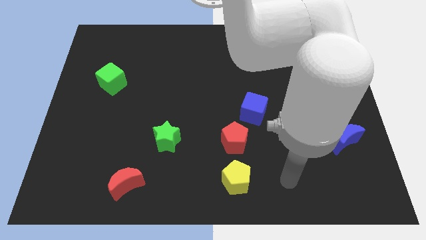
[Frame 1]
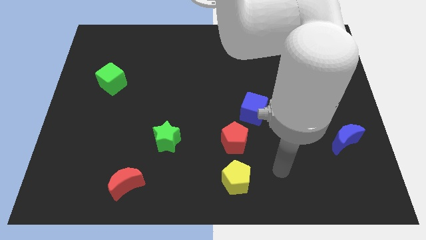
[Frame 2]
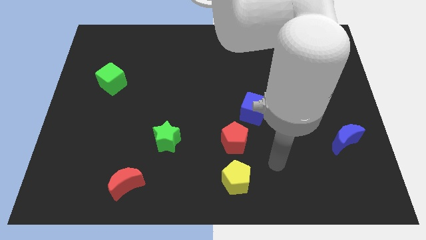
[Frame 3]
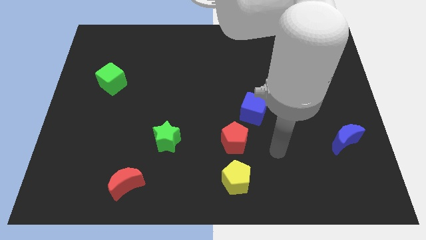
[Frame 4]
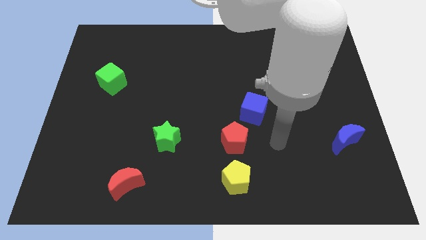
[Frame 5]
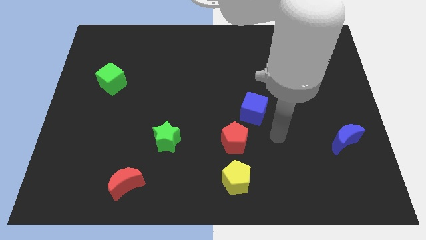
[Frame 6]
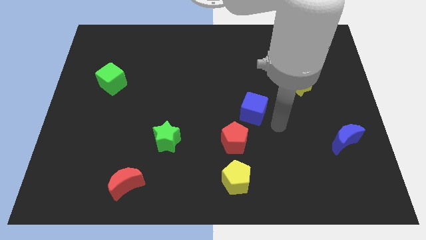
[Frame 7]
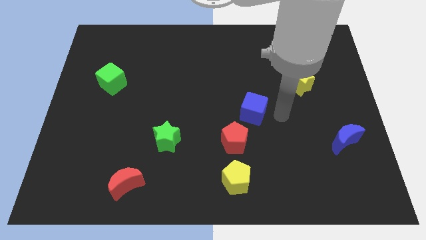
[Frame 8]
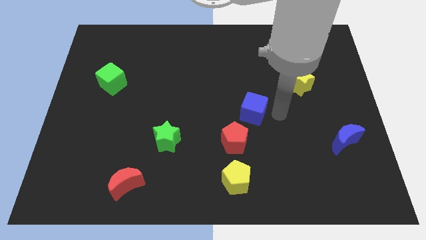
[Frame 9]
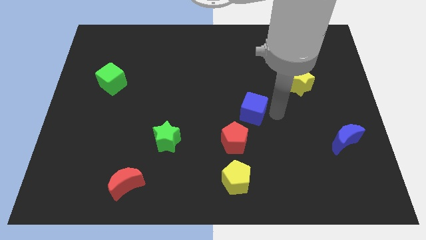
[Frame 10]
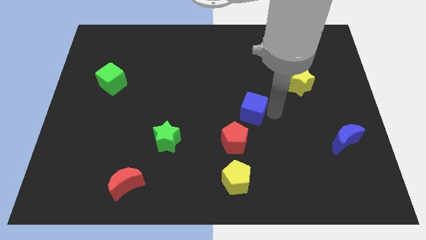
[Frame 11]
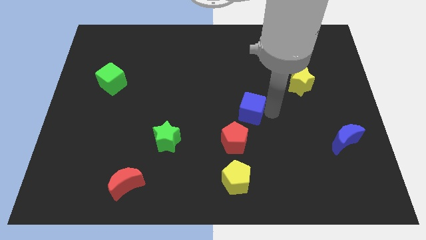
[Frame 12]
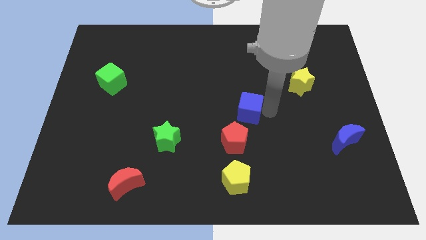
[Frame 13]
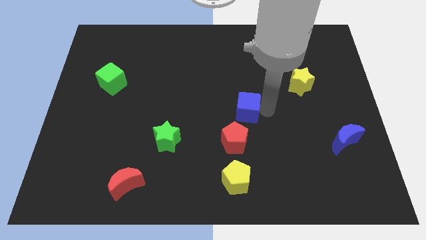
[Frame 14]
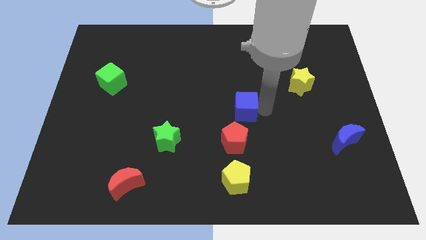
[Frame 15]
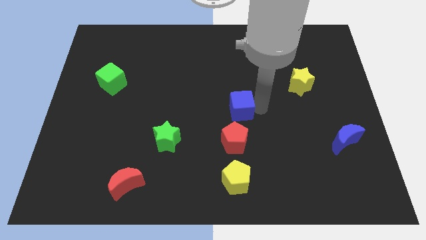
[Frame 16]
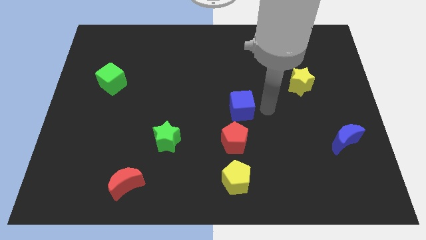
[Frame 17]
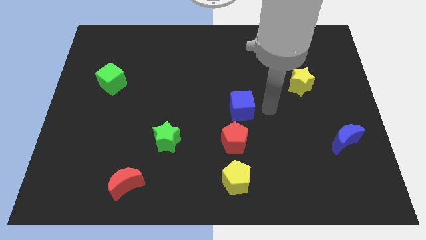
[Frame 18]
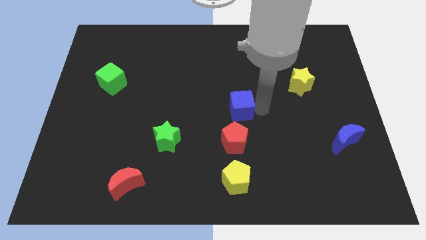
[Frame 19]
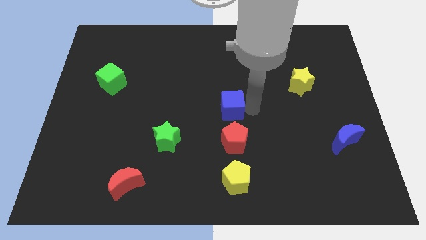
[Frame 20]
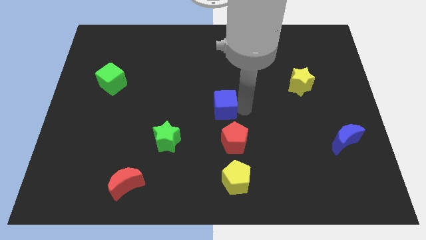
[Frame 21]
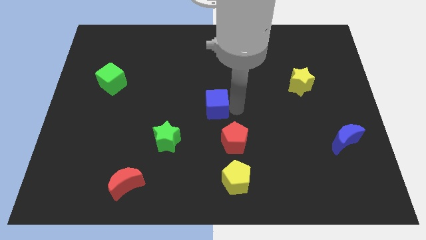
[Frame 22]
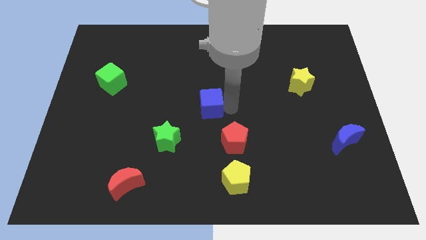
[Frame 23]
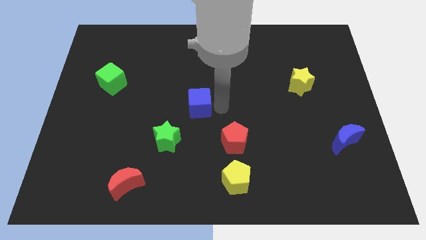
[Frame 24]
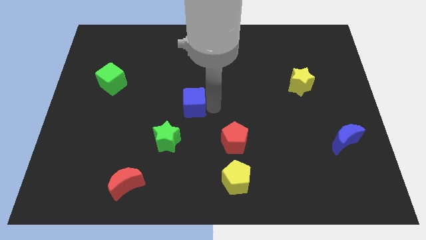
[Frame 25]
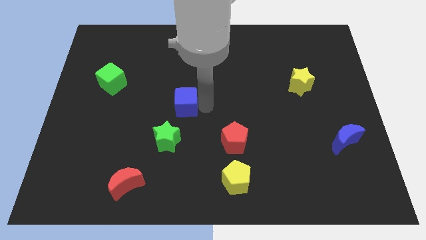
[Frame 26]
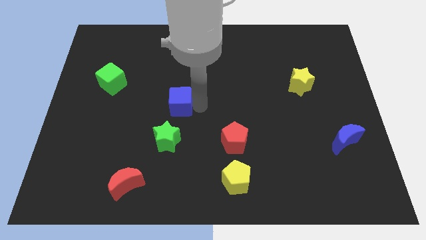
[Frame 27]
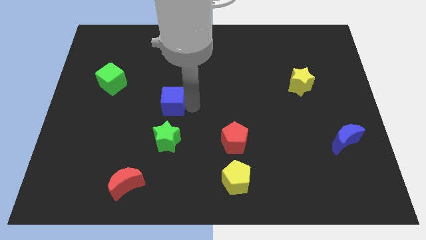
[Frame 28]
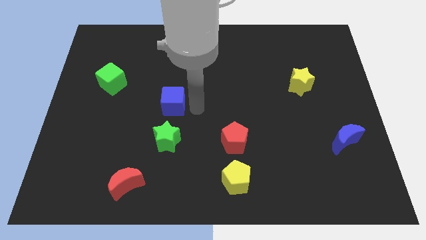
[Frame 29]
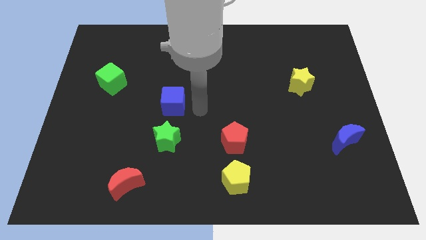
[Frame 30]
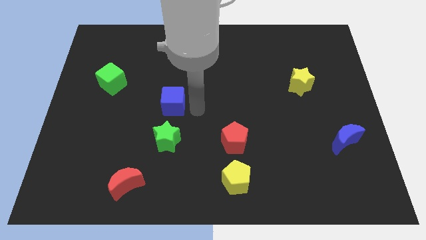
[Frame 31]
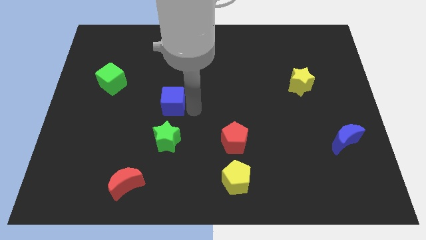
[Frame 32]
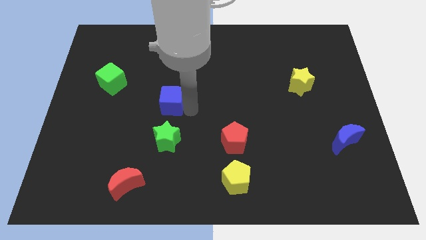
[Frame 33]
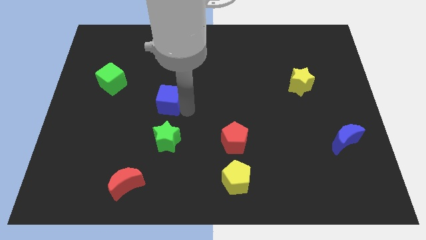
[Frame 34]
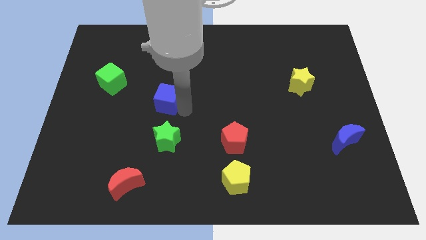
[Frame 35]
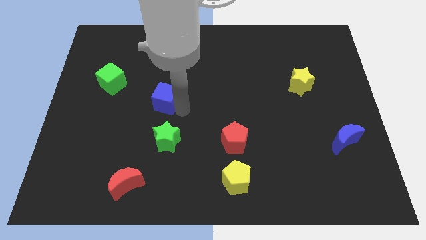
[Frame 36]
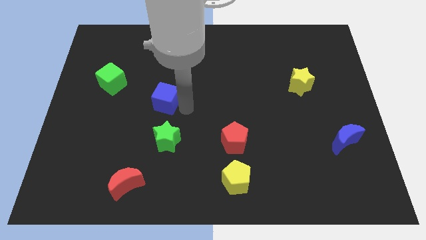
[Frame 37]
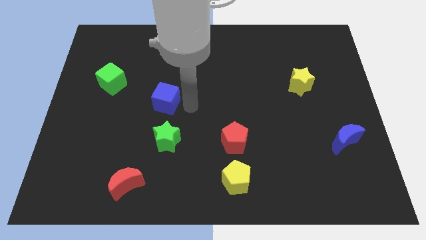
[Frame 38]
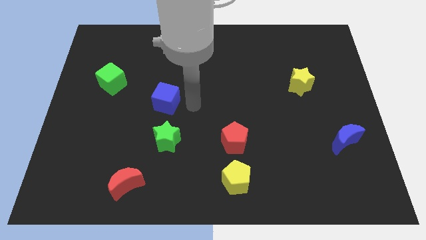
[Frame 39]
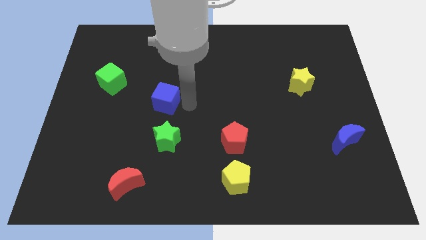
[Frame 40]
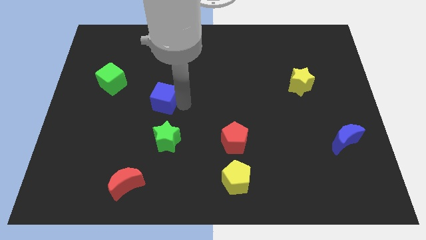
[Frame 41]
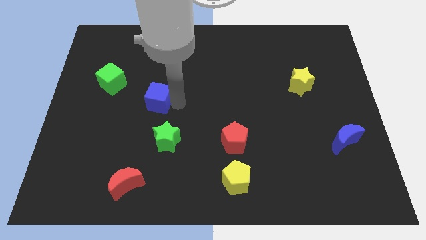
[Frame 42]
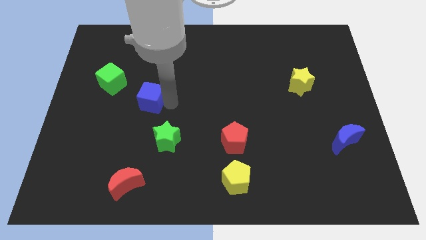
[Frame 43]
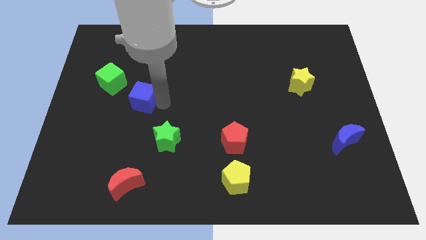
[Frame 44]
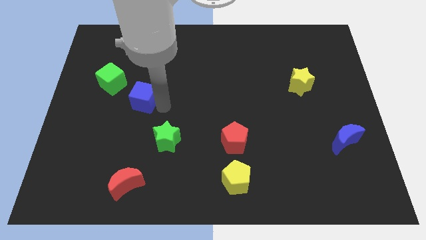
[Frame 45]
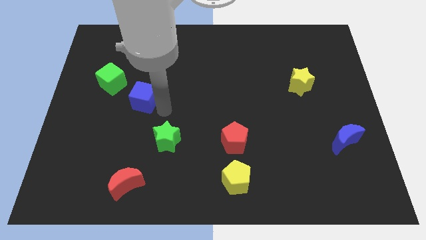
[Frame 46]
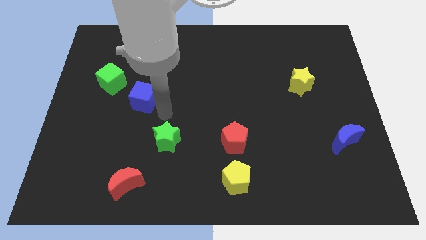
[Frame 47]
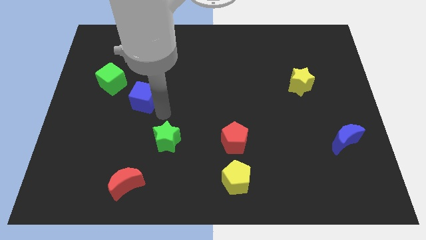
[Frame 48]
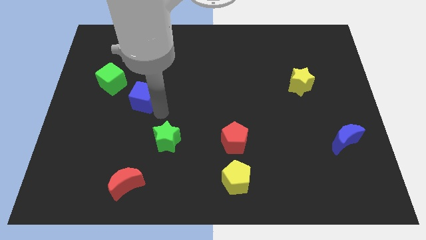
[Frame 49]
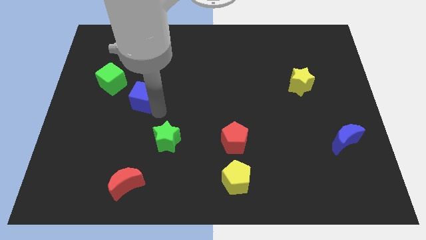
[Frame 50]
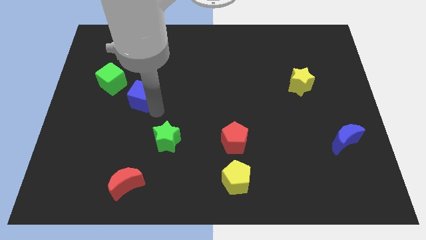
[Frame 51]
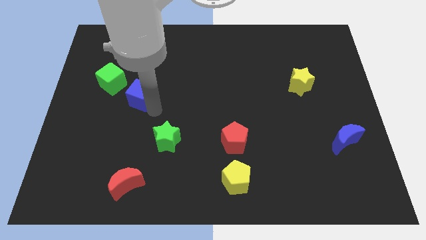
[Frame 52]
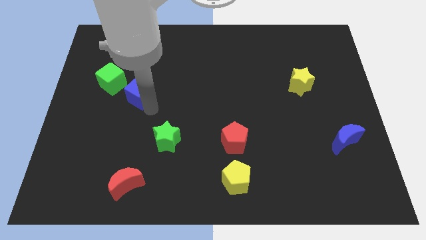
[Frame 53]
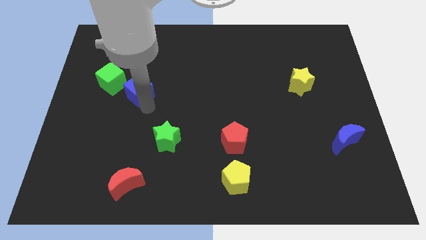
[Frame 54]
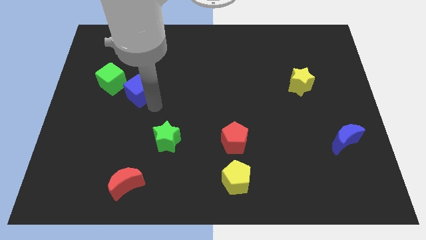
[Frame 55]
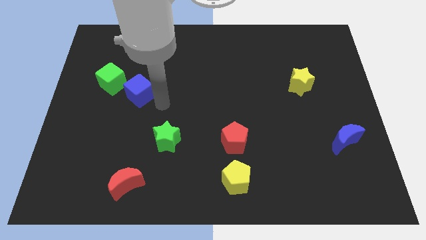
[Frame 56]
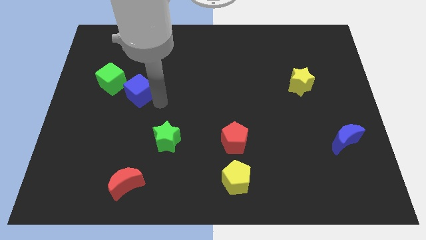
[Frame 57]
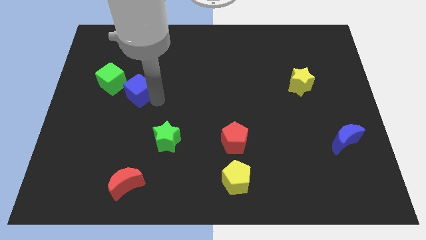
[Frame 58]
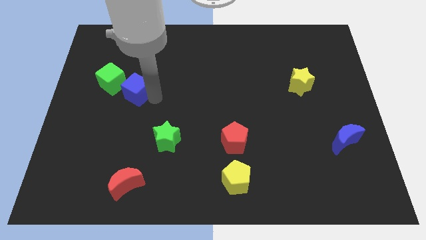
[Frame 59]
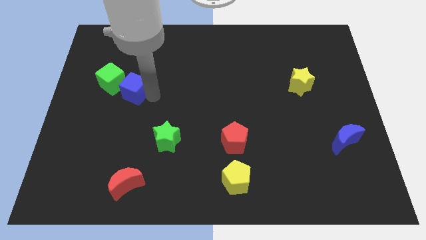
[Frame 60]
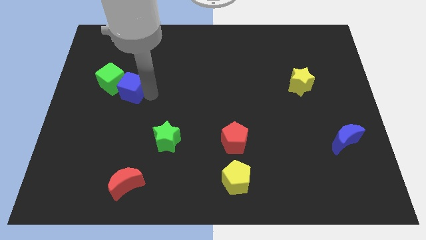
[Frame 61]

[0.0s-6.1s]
put the blue cube to the green cube
